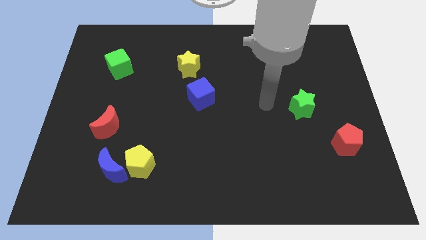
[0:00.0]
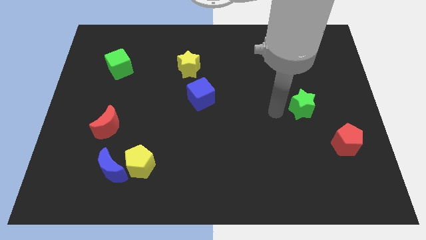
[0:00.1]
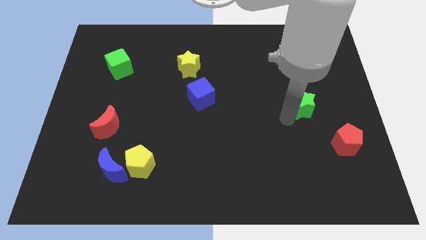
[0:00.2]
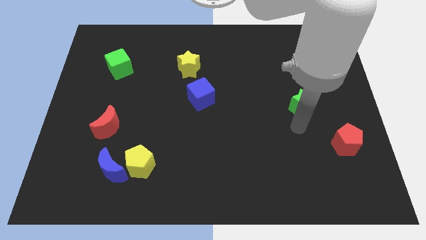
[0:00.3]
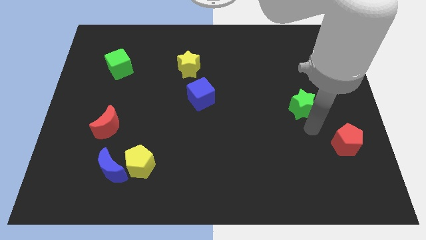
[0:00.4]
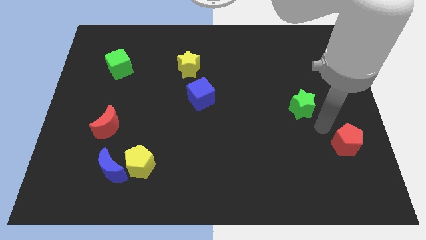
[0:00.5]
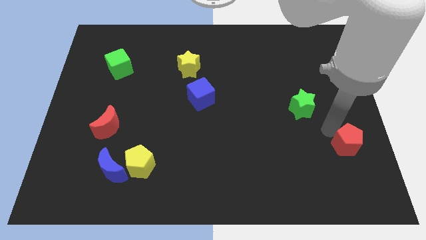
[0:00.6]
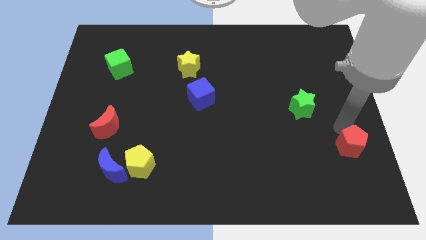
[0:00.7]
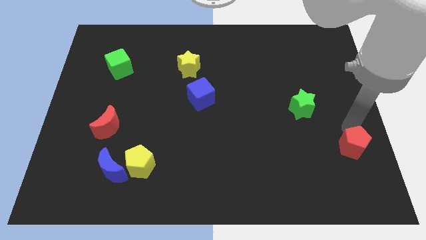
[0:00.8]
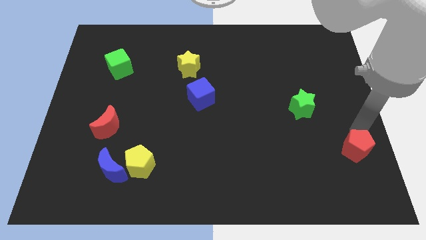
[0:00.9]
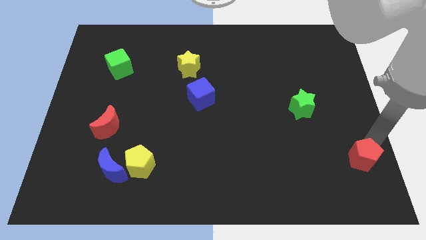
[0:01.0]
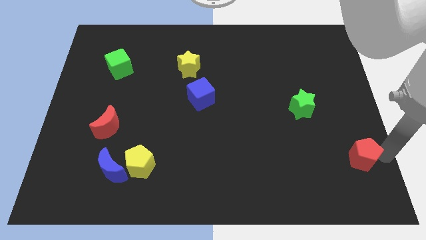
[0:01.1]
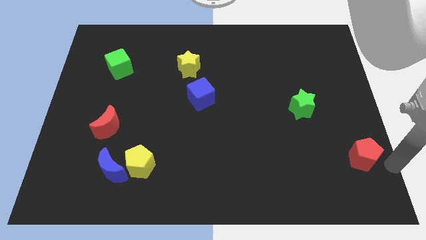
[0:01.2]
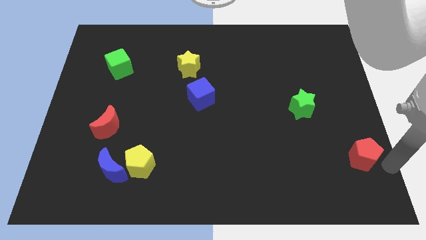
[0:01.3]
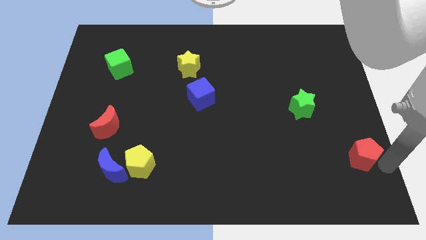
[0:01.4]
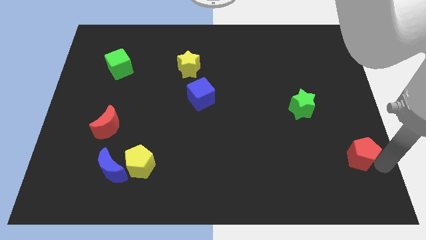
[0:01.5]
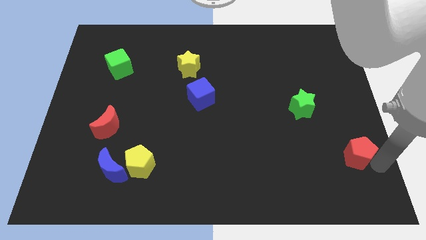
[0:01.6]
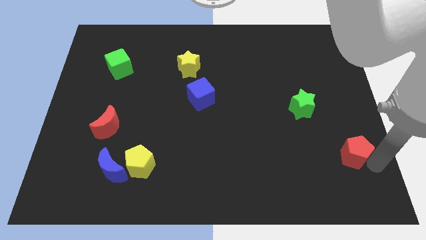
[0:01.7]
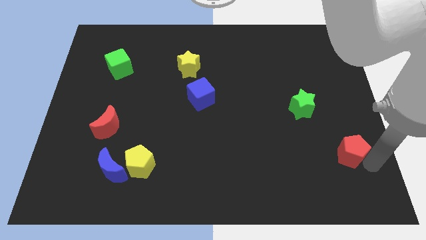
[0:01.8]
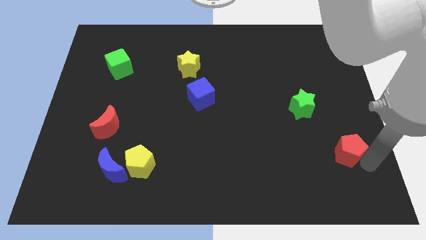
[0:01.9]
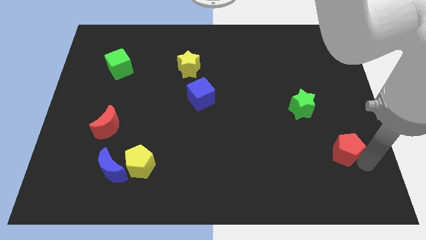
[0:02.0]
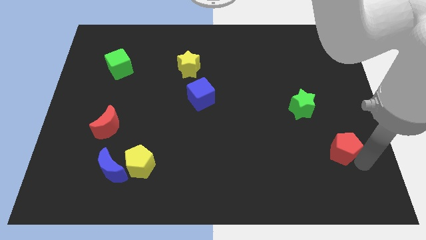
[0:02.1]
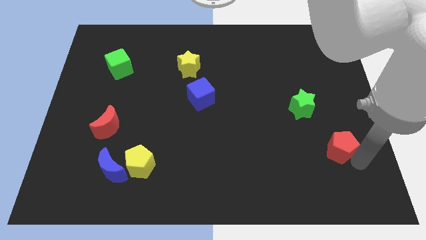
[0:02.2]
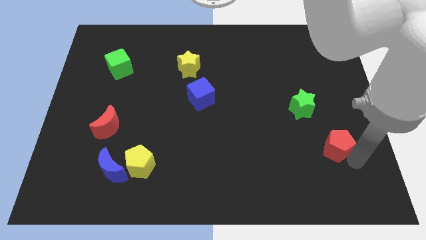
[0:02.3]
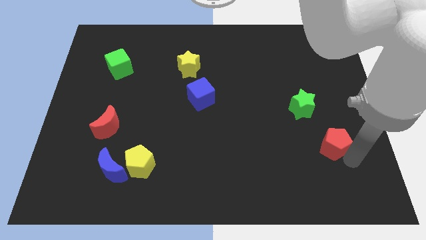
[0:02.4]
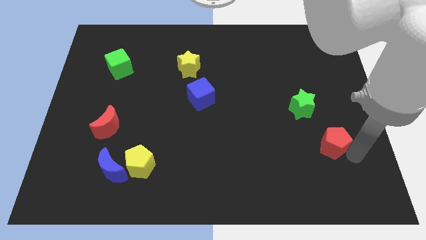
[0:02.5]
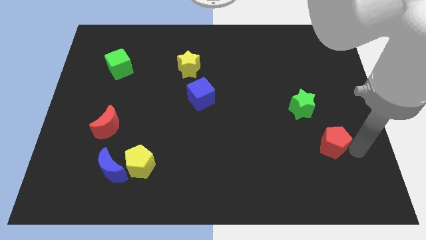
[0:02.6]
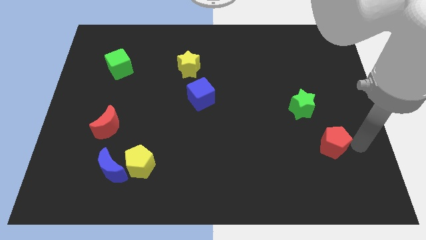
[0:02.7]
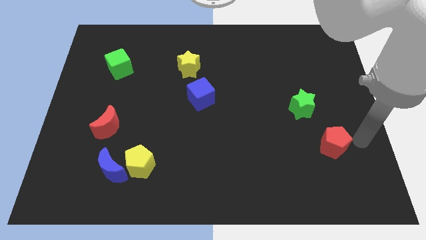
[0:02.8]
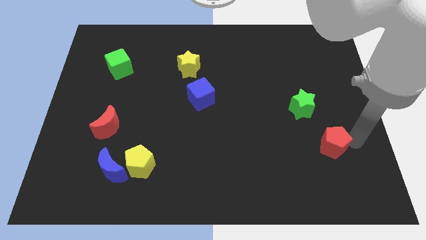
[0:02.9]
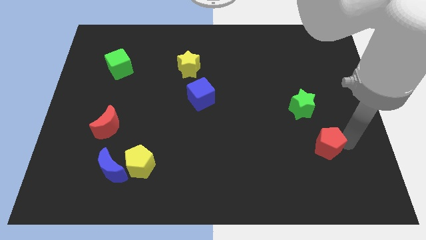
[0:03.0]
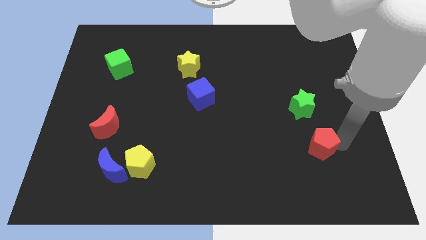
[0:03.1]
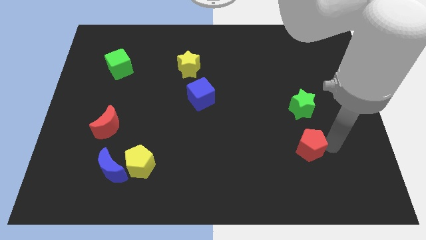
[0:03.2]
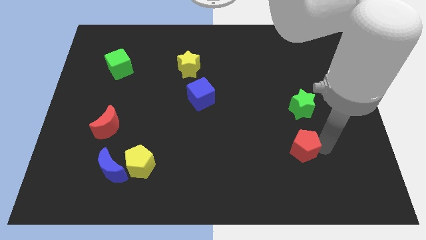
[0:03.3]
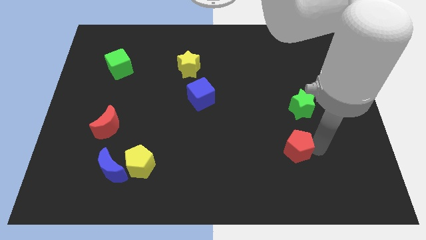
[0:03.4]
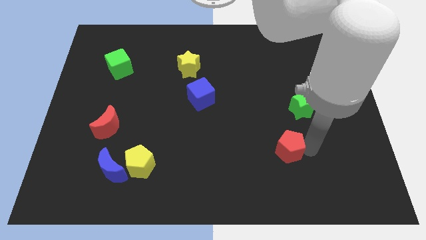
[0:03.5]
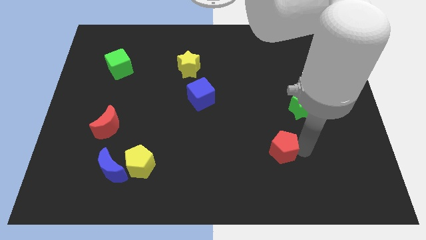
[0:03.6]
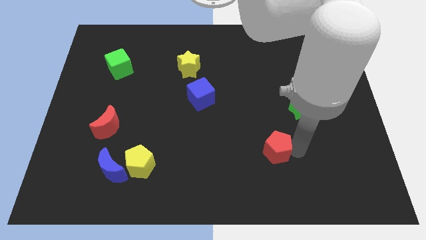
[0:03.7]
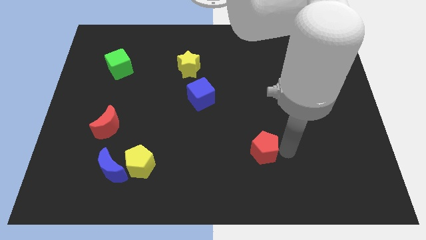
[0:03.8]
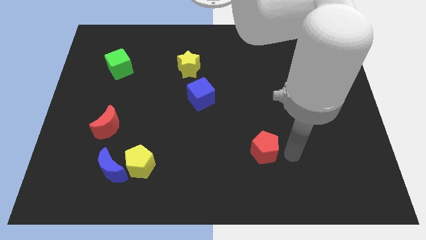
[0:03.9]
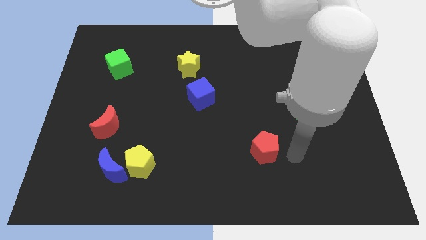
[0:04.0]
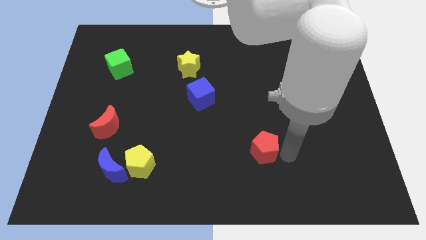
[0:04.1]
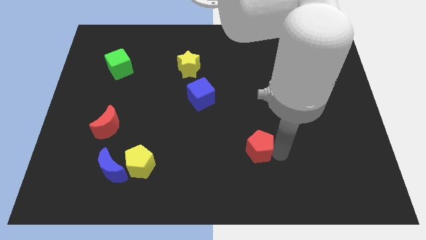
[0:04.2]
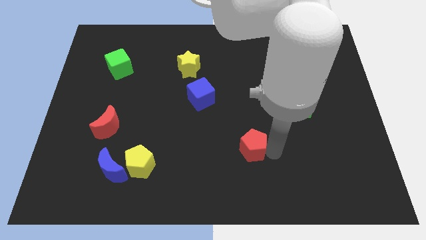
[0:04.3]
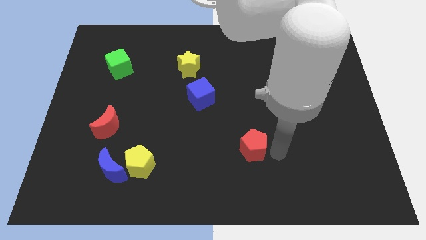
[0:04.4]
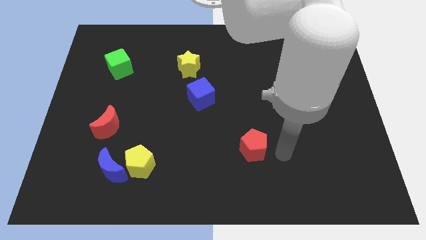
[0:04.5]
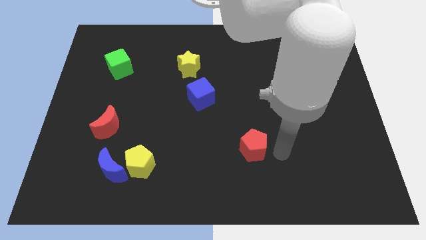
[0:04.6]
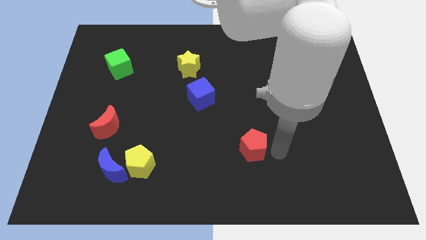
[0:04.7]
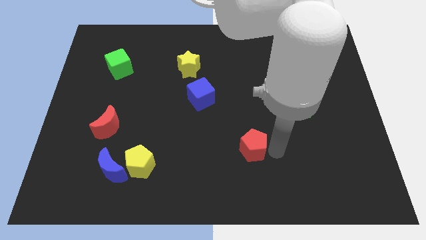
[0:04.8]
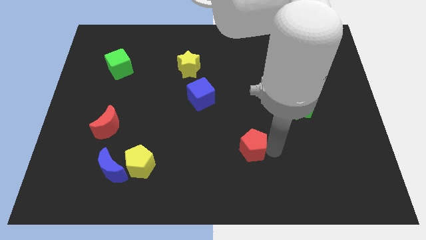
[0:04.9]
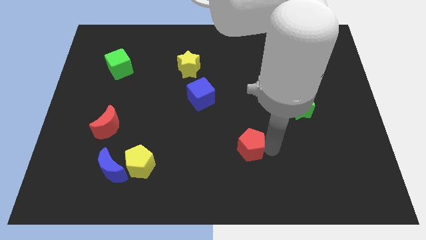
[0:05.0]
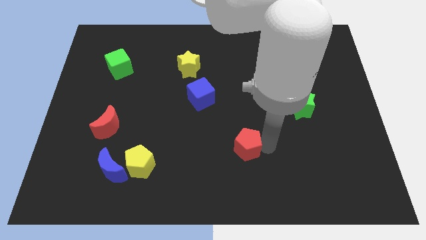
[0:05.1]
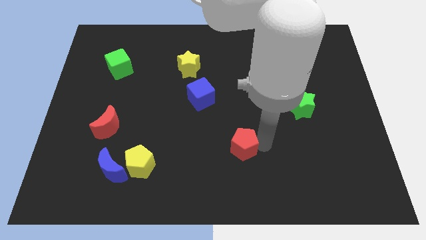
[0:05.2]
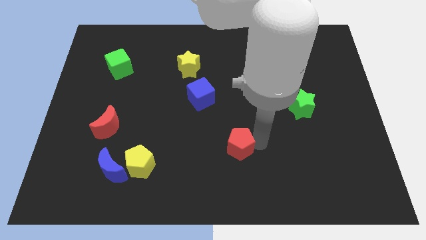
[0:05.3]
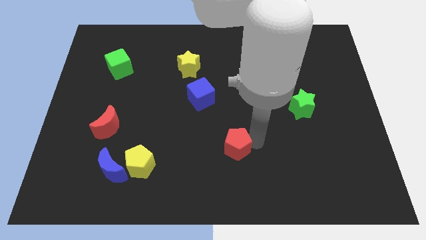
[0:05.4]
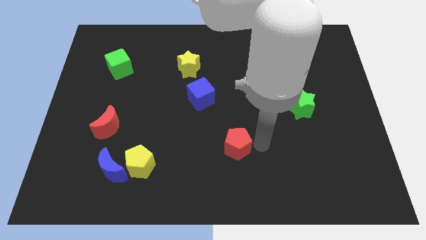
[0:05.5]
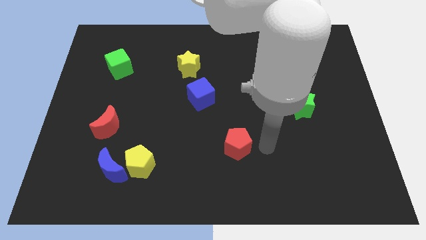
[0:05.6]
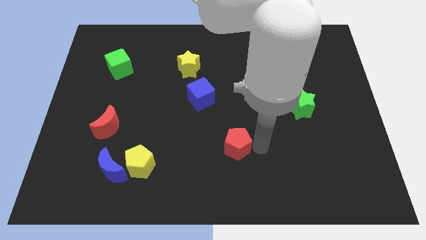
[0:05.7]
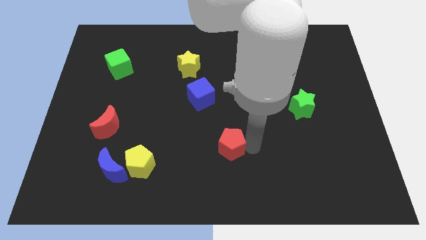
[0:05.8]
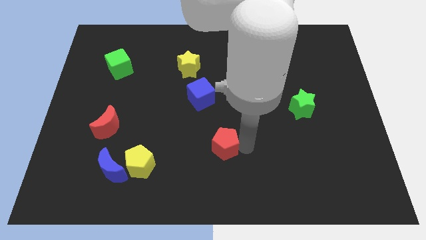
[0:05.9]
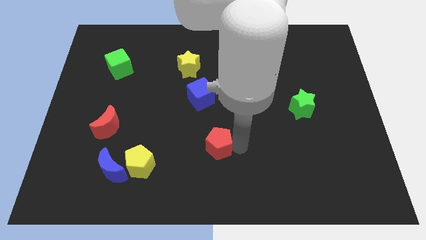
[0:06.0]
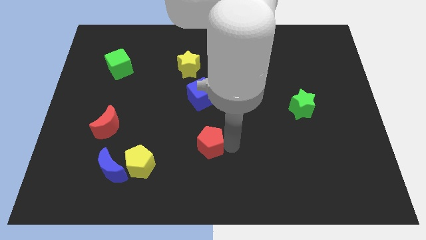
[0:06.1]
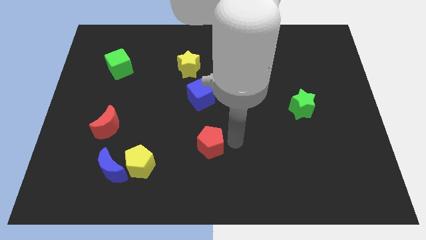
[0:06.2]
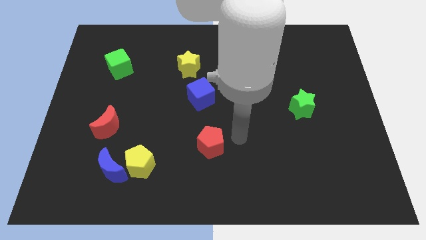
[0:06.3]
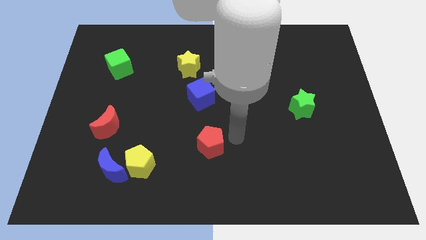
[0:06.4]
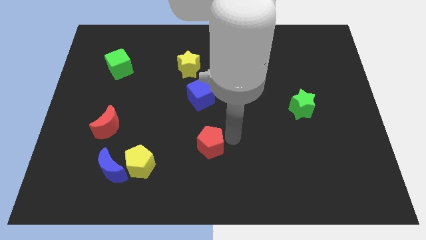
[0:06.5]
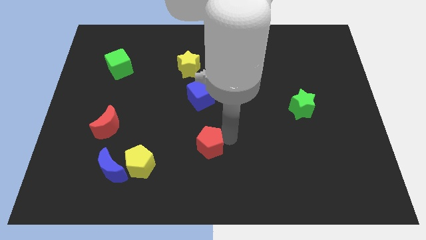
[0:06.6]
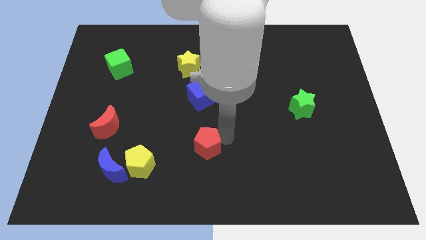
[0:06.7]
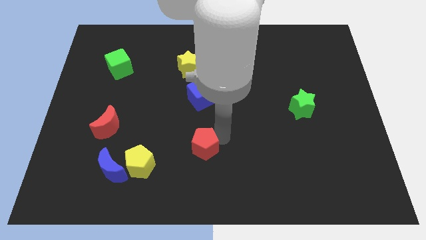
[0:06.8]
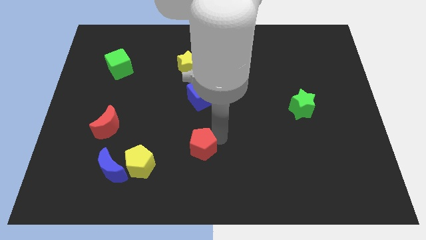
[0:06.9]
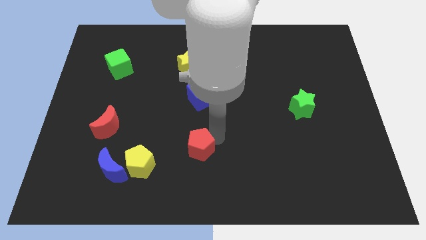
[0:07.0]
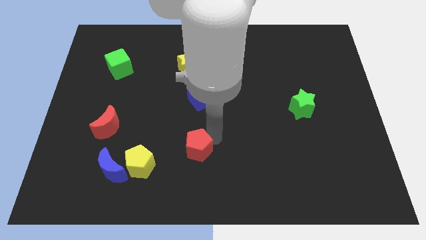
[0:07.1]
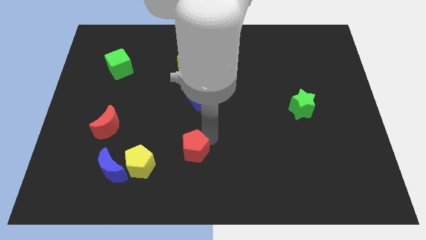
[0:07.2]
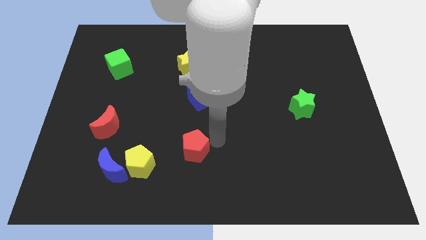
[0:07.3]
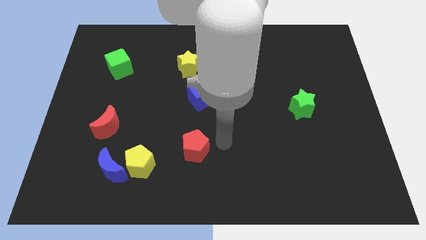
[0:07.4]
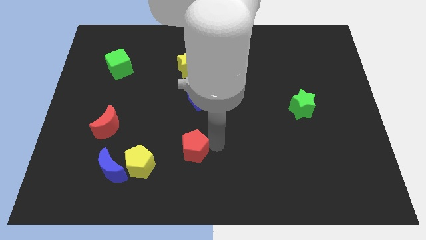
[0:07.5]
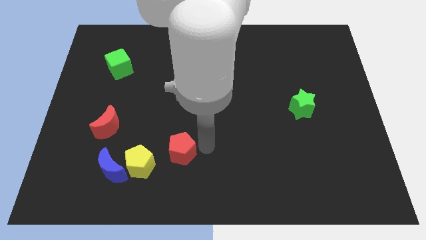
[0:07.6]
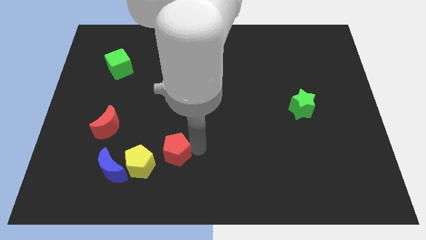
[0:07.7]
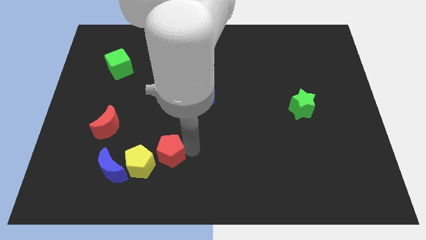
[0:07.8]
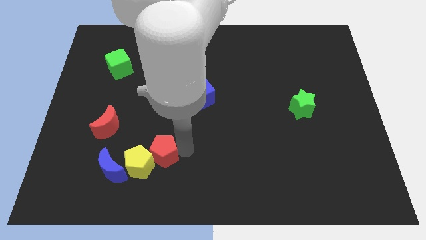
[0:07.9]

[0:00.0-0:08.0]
move the red pentagon close to the yellow pentagon
